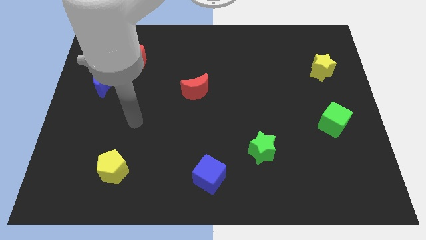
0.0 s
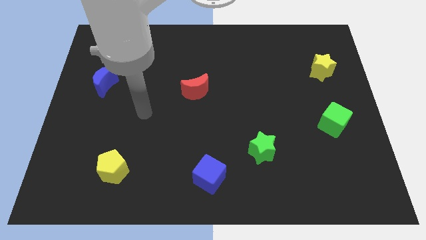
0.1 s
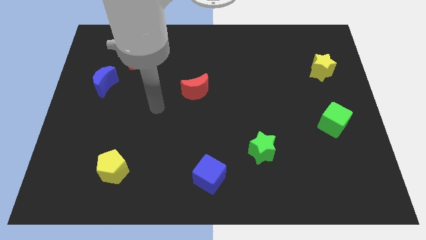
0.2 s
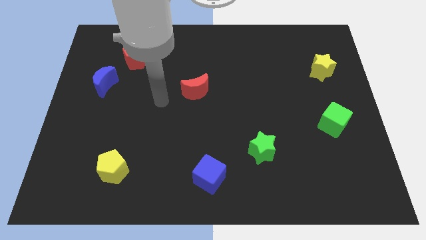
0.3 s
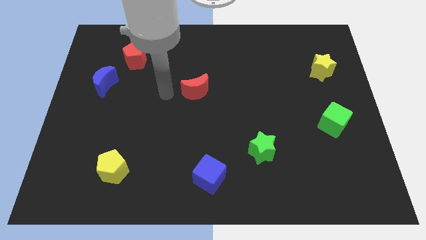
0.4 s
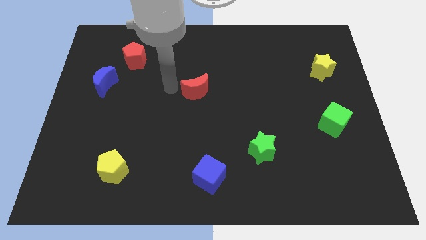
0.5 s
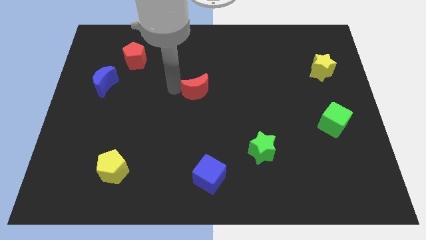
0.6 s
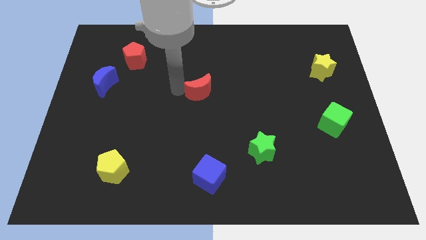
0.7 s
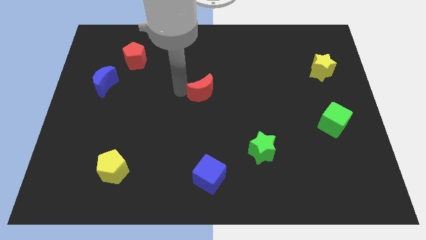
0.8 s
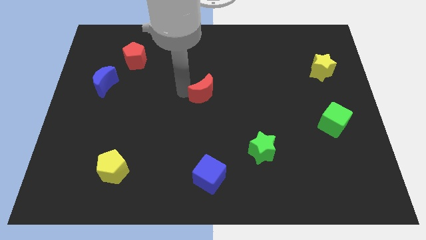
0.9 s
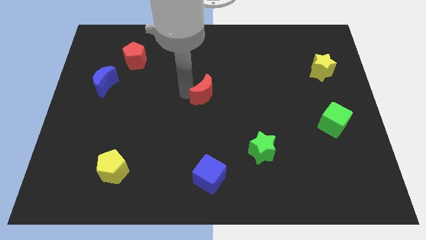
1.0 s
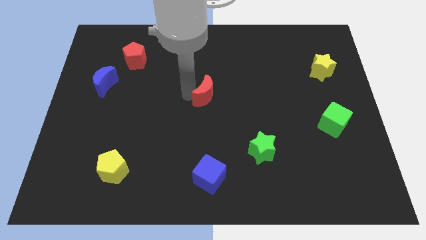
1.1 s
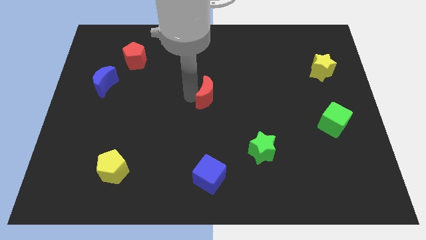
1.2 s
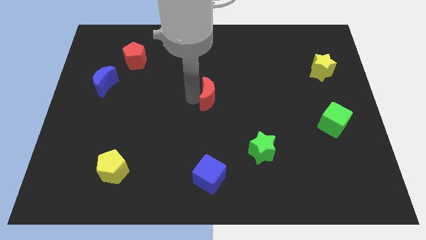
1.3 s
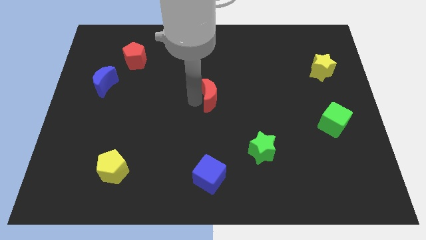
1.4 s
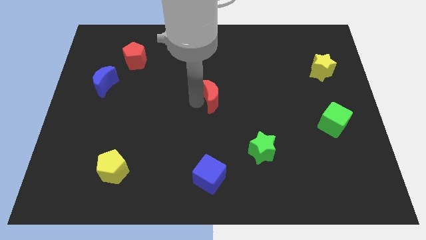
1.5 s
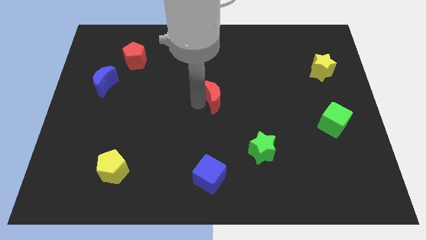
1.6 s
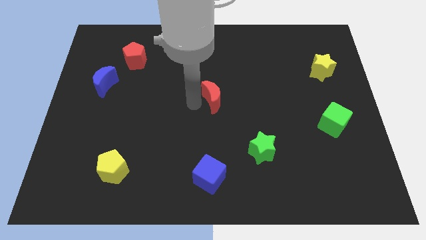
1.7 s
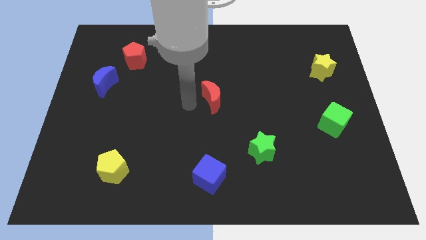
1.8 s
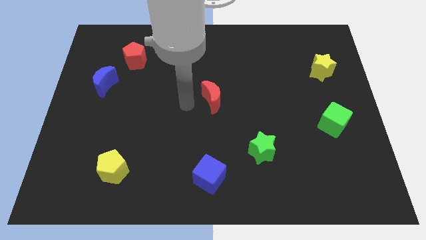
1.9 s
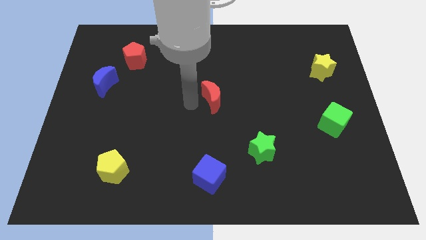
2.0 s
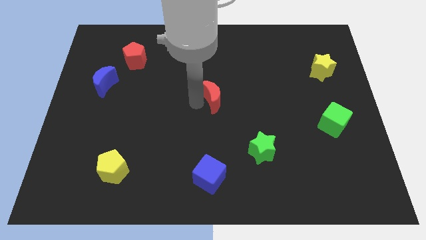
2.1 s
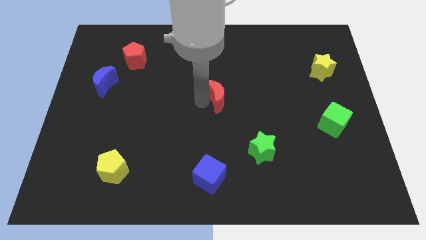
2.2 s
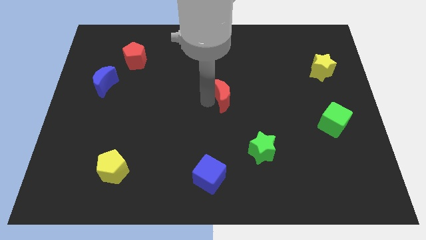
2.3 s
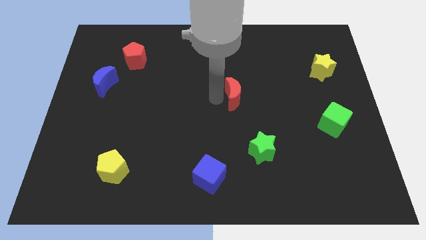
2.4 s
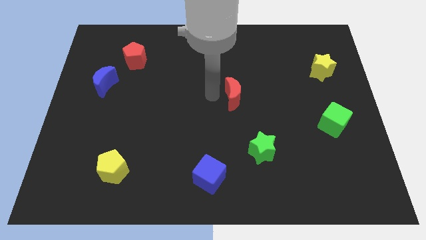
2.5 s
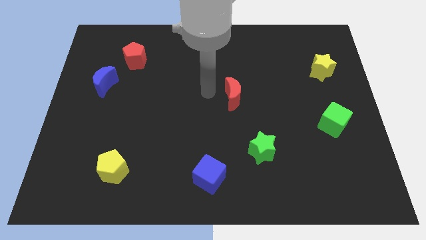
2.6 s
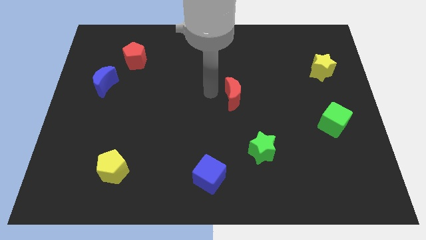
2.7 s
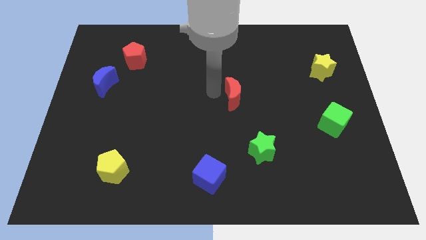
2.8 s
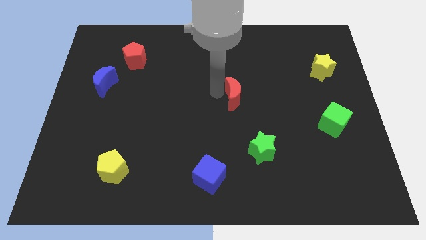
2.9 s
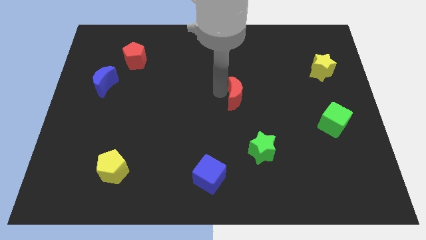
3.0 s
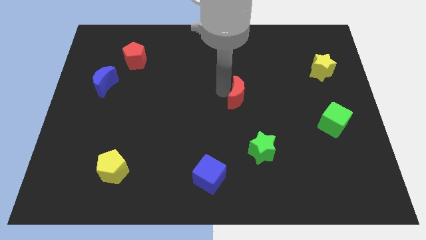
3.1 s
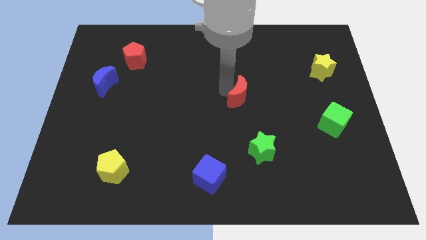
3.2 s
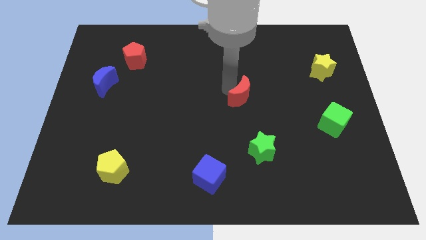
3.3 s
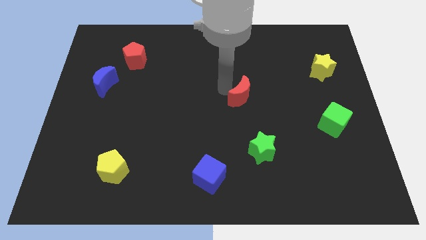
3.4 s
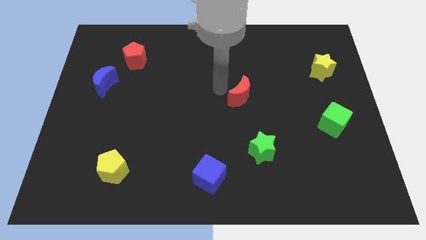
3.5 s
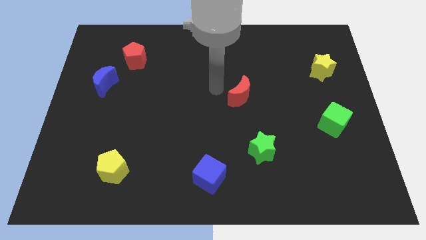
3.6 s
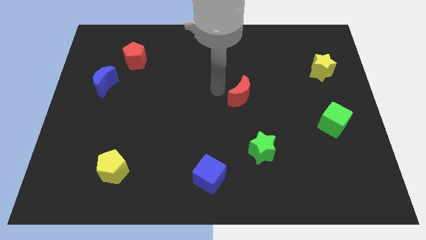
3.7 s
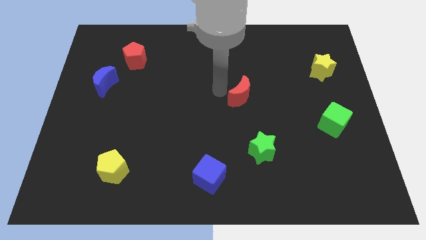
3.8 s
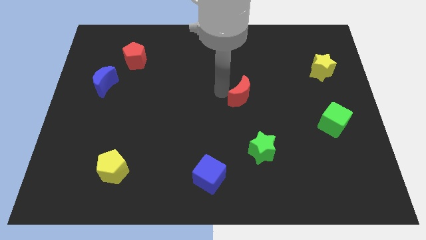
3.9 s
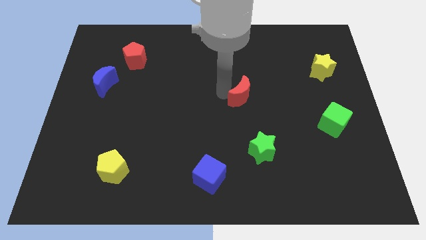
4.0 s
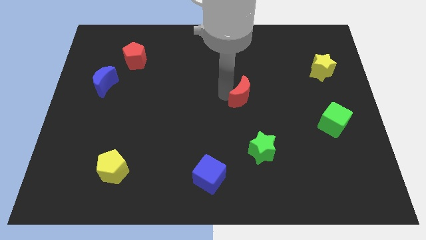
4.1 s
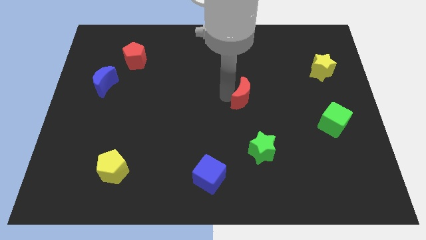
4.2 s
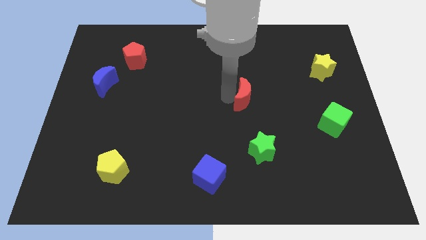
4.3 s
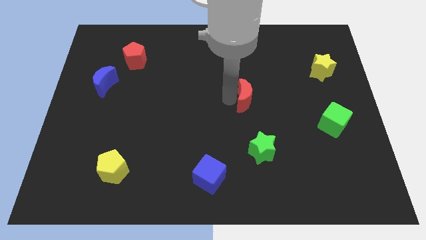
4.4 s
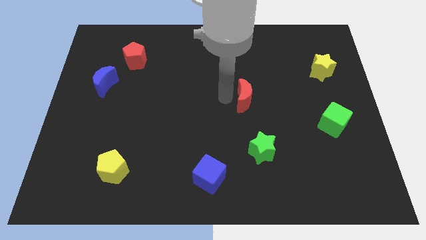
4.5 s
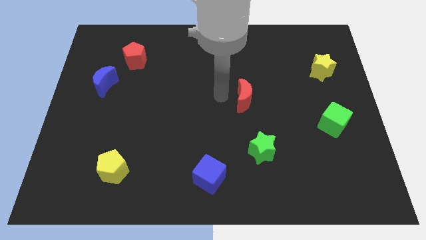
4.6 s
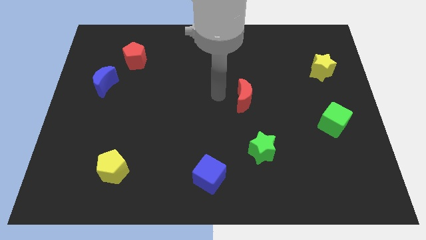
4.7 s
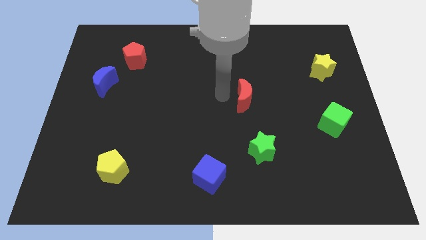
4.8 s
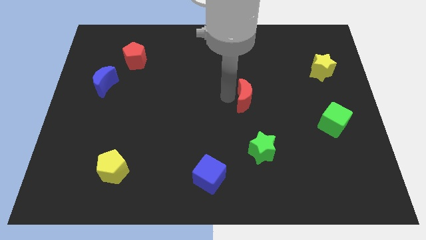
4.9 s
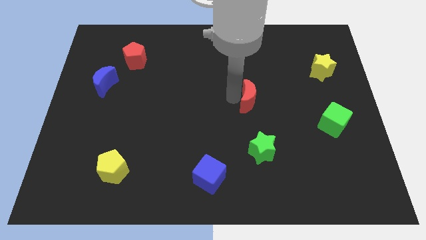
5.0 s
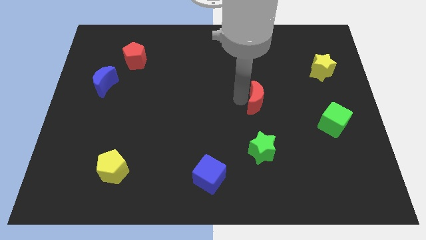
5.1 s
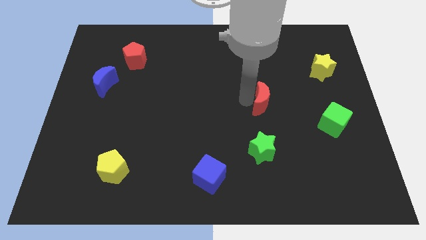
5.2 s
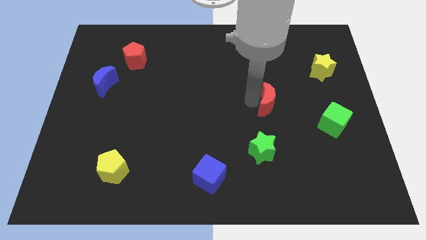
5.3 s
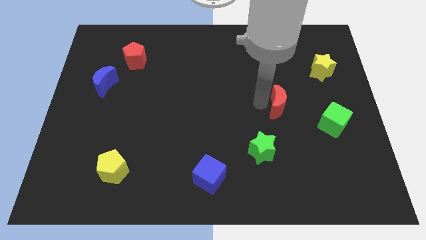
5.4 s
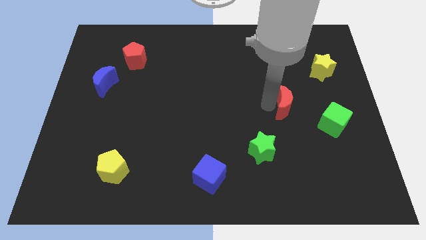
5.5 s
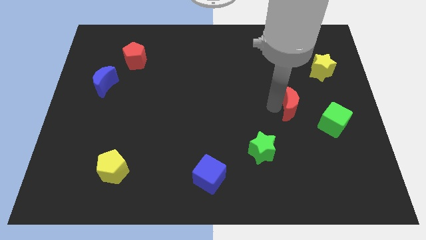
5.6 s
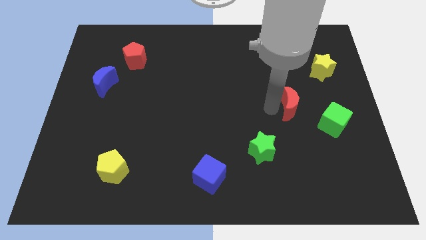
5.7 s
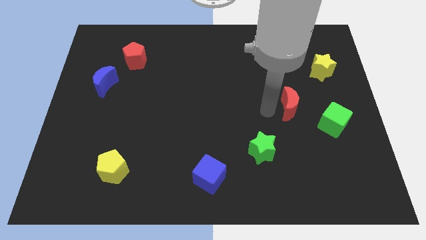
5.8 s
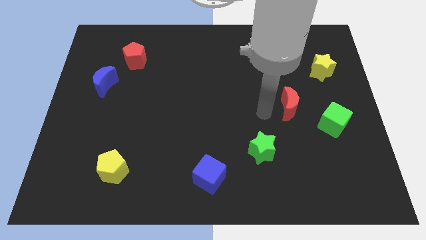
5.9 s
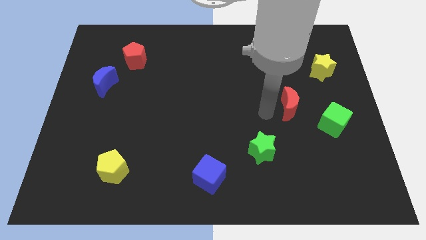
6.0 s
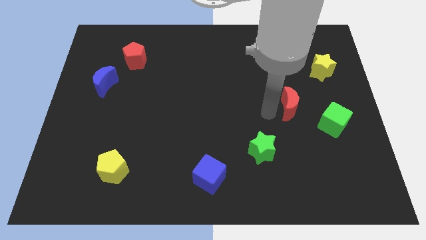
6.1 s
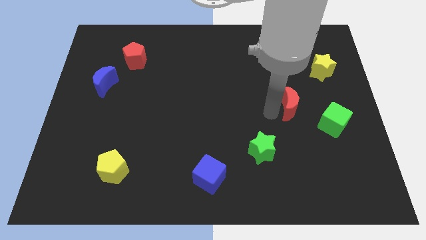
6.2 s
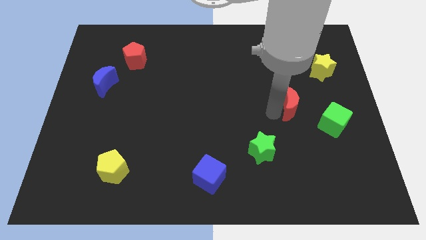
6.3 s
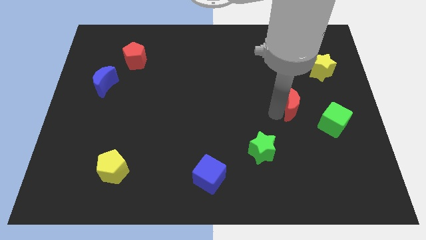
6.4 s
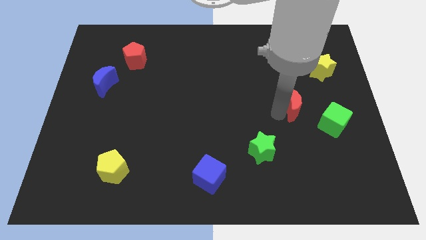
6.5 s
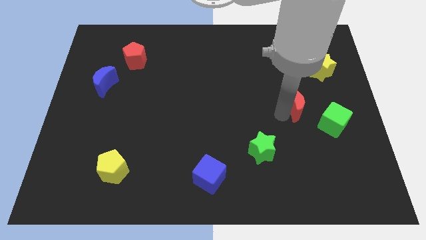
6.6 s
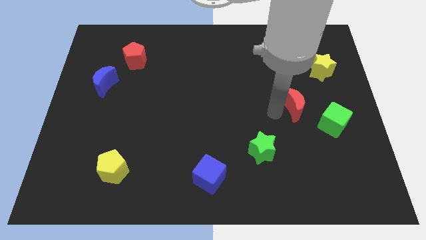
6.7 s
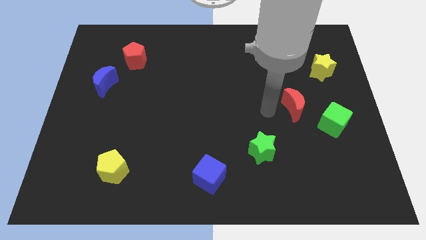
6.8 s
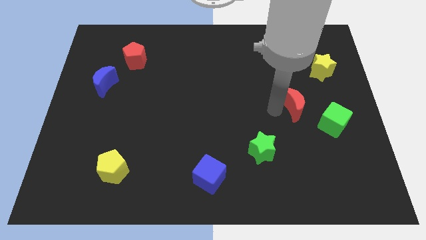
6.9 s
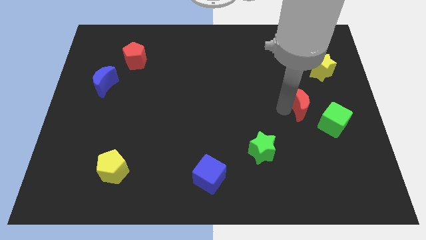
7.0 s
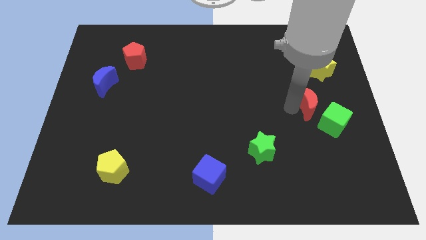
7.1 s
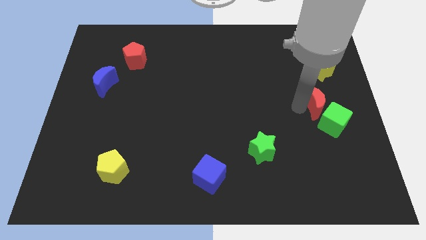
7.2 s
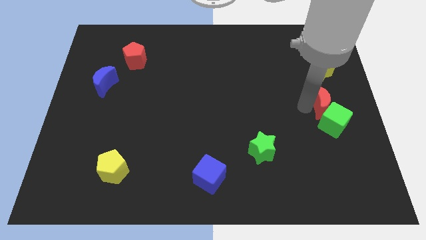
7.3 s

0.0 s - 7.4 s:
move the red moon to the right side
